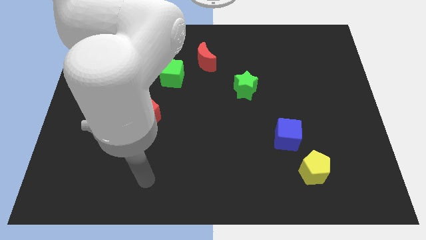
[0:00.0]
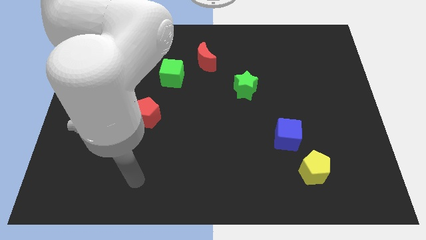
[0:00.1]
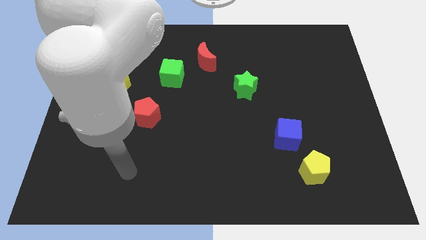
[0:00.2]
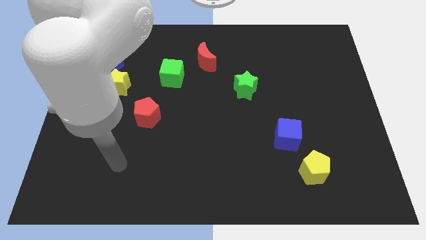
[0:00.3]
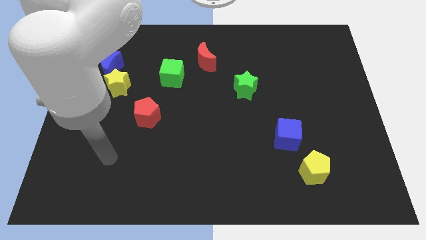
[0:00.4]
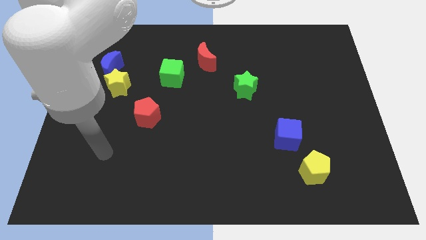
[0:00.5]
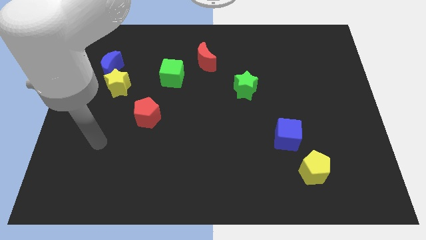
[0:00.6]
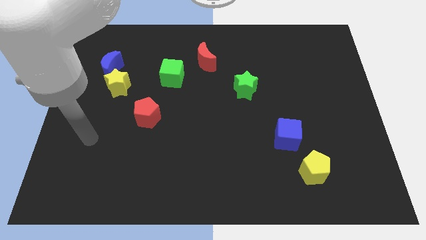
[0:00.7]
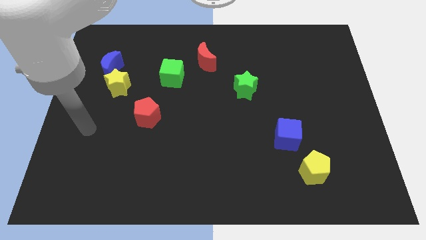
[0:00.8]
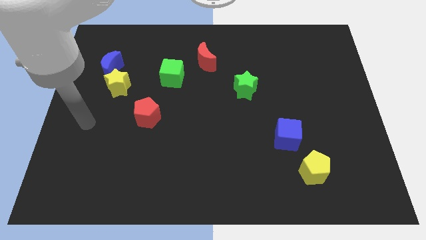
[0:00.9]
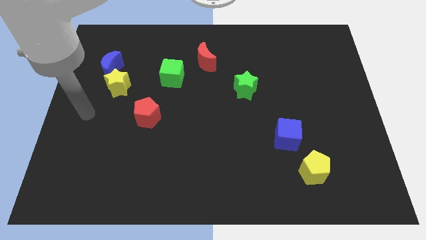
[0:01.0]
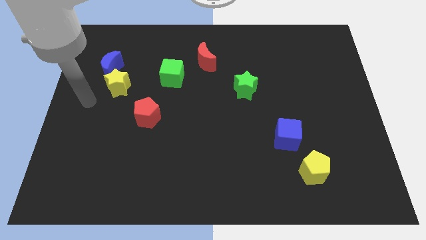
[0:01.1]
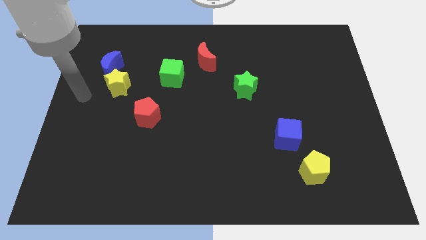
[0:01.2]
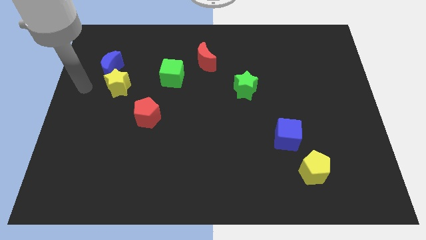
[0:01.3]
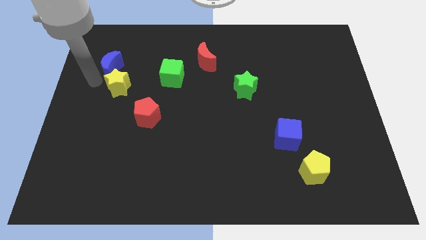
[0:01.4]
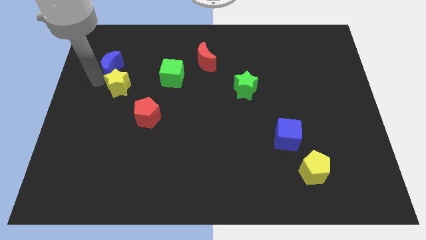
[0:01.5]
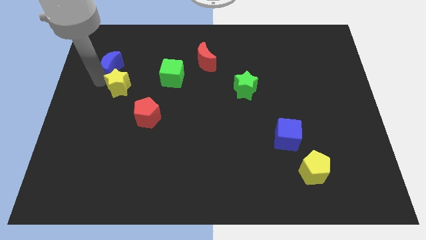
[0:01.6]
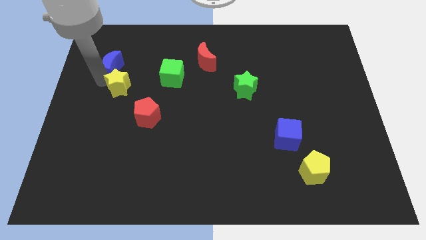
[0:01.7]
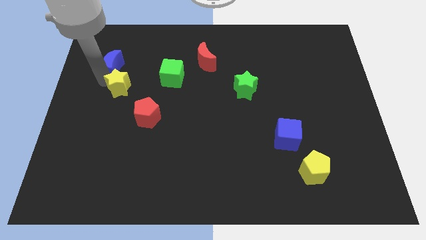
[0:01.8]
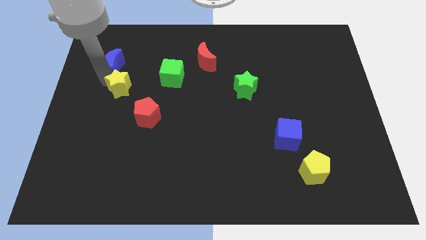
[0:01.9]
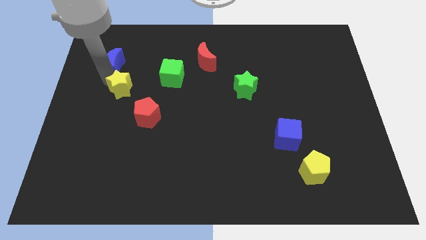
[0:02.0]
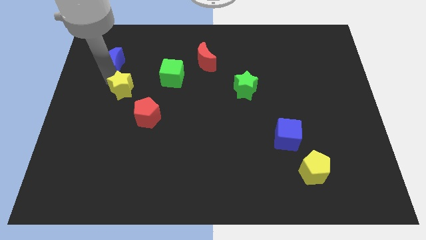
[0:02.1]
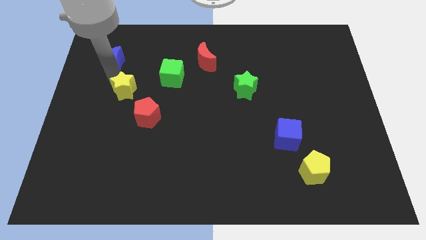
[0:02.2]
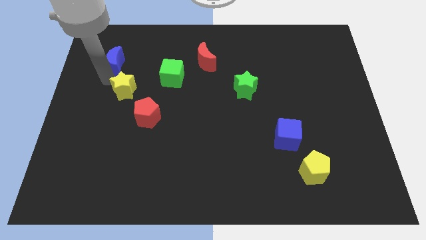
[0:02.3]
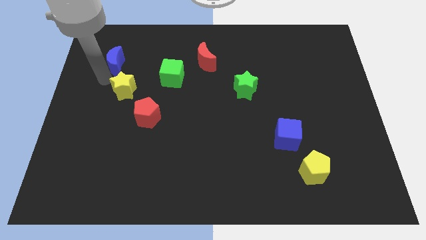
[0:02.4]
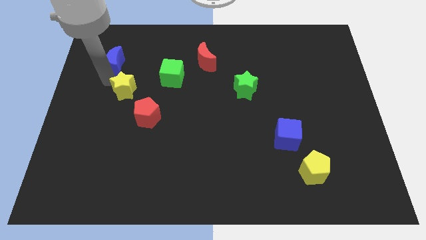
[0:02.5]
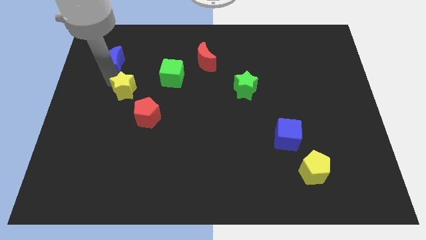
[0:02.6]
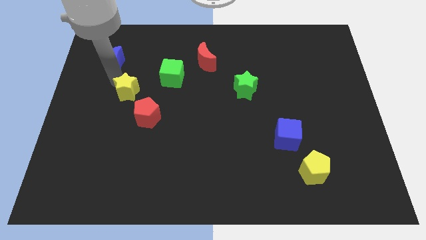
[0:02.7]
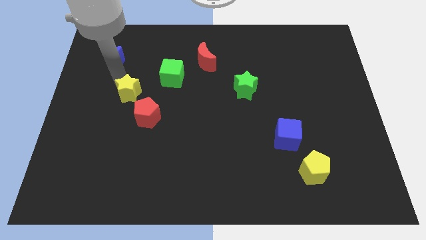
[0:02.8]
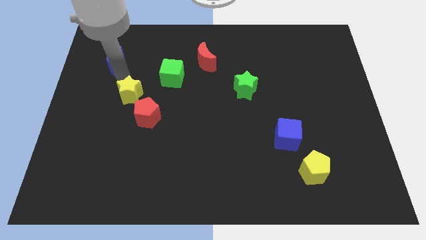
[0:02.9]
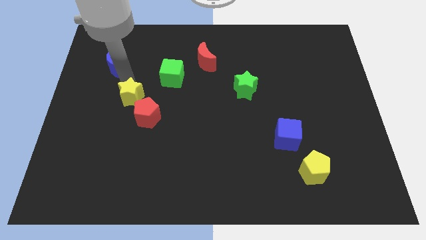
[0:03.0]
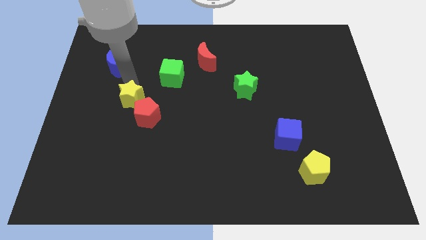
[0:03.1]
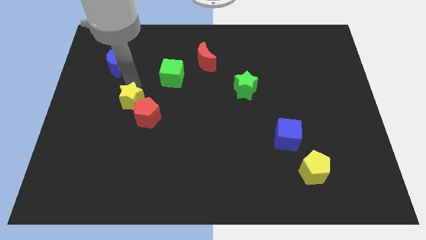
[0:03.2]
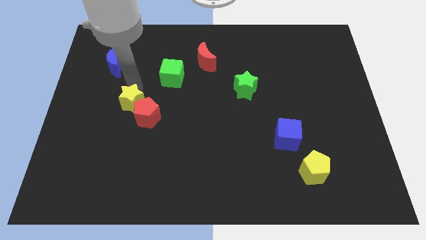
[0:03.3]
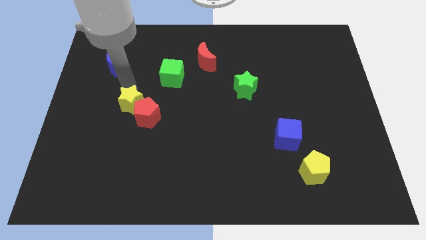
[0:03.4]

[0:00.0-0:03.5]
slide the yellow star a bit downwards and to the right diagonally

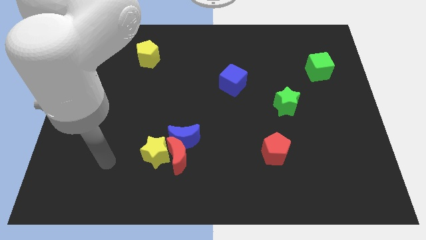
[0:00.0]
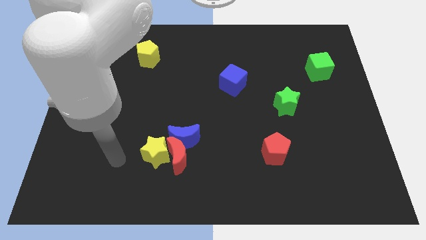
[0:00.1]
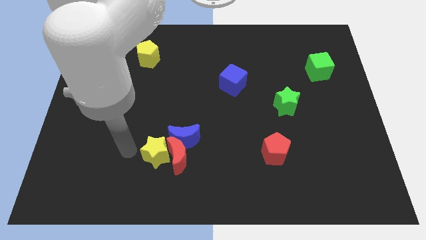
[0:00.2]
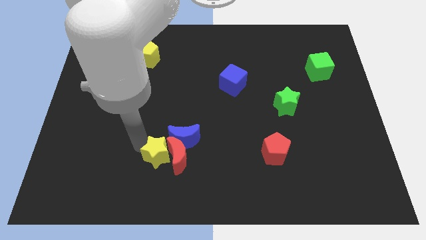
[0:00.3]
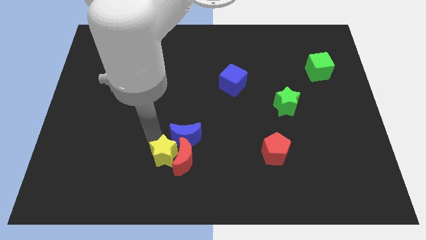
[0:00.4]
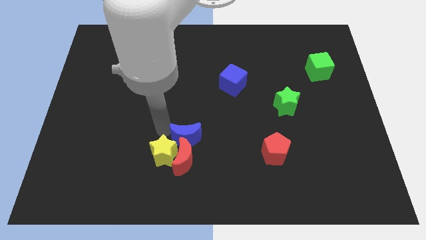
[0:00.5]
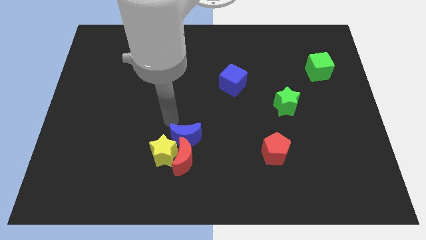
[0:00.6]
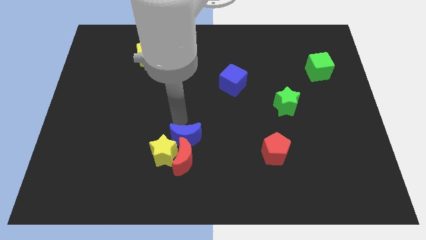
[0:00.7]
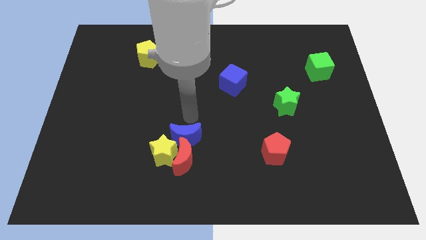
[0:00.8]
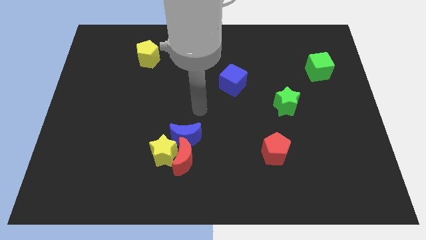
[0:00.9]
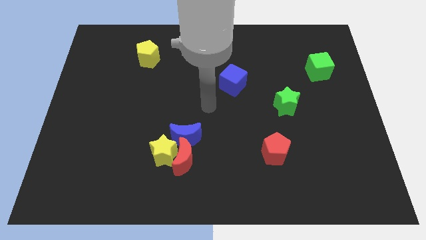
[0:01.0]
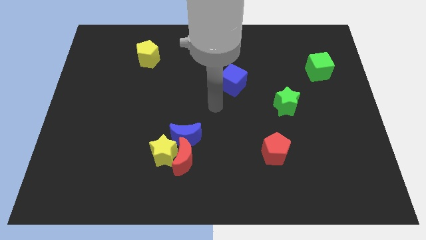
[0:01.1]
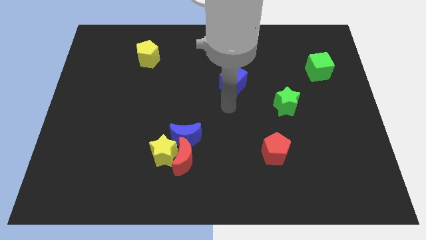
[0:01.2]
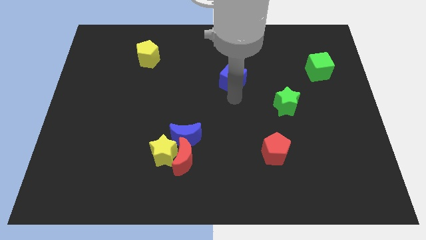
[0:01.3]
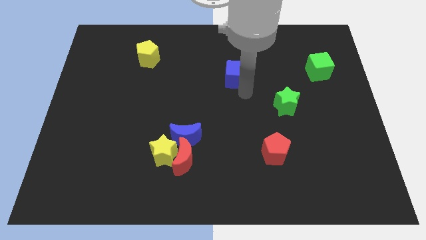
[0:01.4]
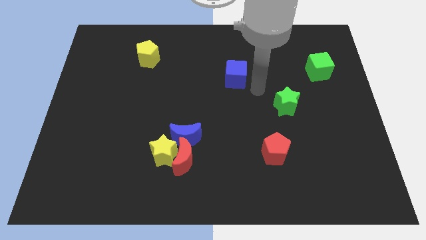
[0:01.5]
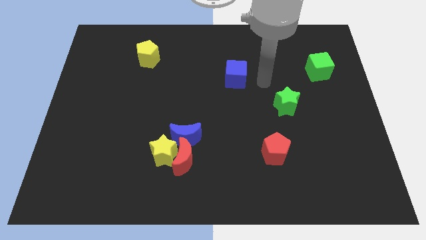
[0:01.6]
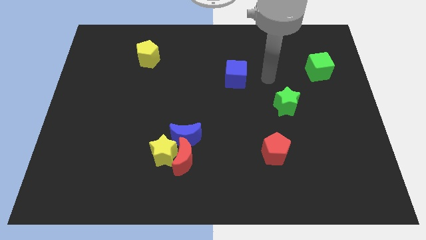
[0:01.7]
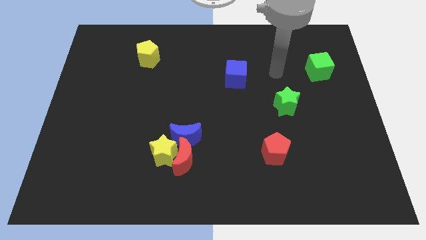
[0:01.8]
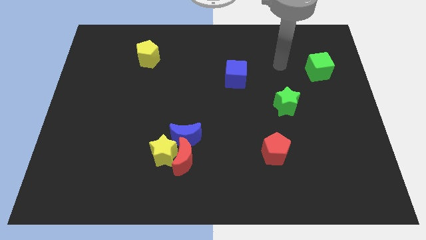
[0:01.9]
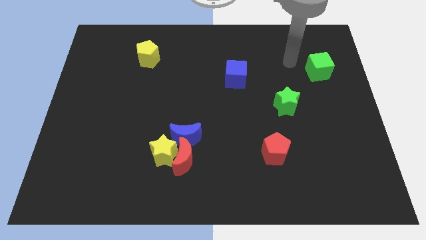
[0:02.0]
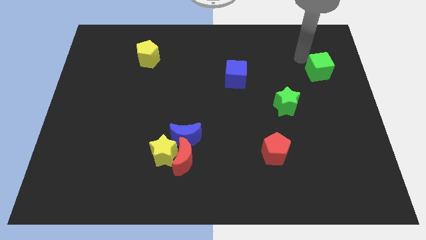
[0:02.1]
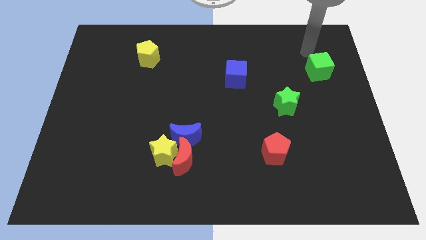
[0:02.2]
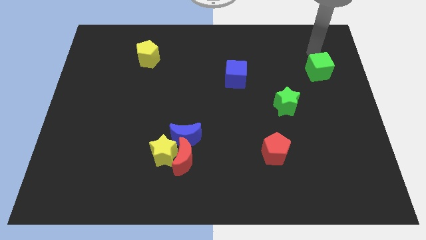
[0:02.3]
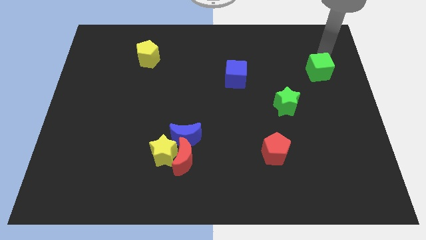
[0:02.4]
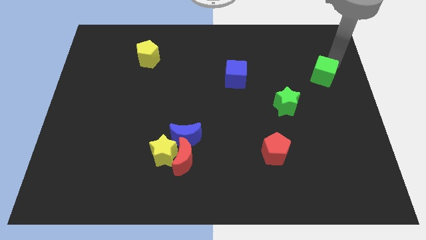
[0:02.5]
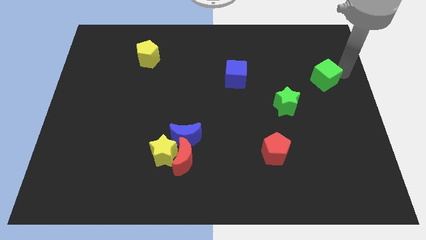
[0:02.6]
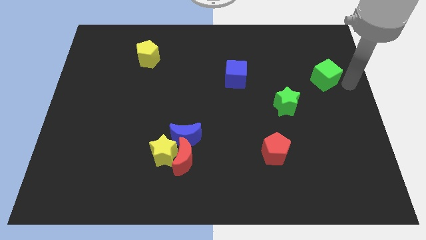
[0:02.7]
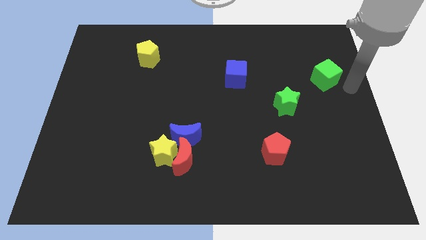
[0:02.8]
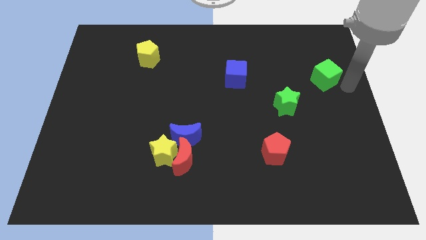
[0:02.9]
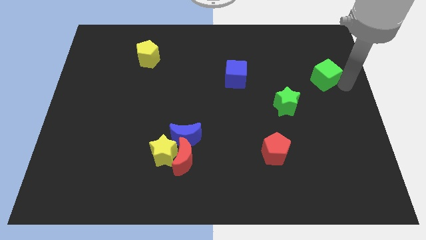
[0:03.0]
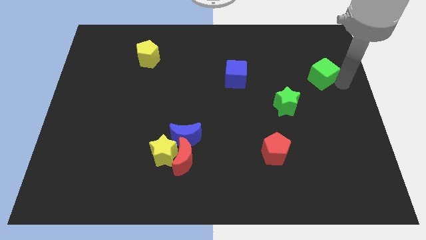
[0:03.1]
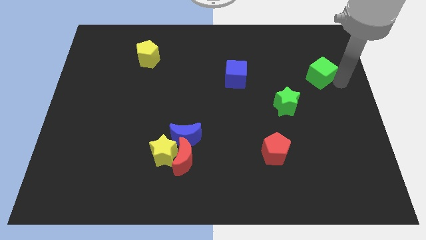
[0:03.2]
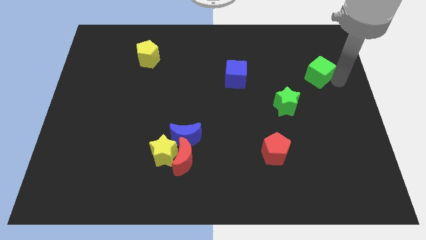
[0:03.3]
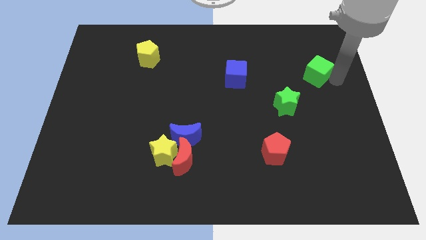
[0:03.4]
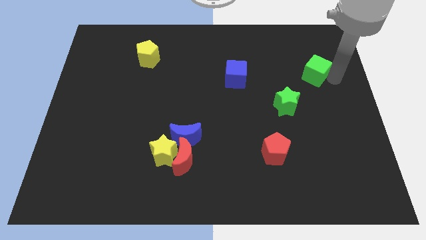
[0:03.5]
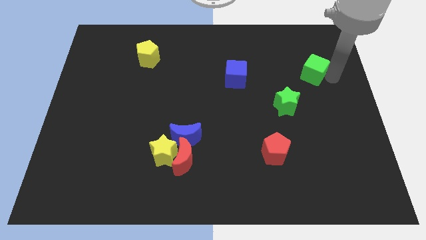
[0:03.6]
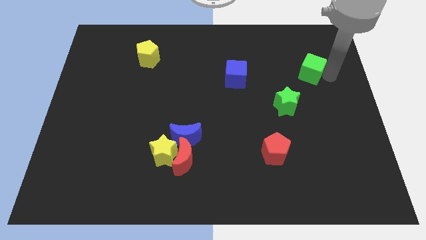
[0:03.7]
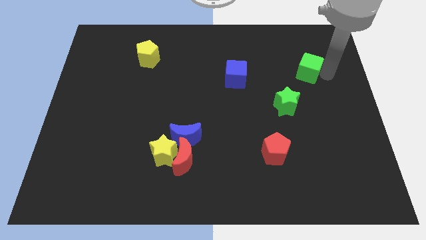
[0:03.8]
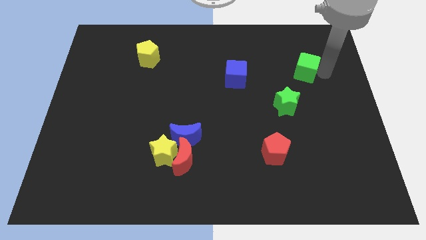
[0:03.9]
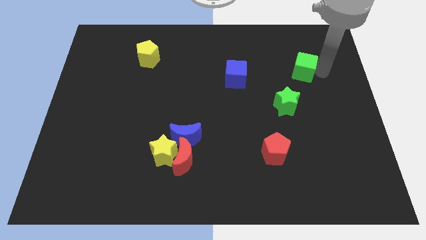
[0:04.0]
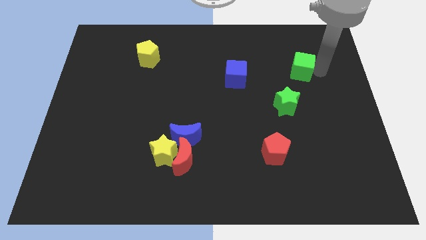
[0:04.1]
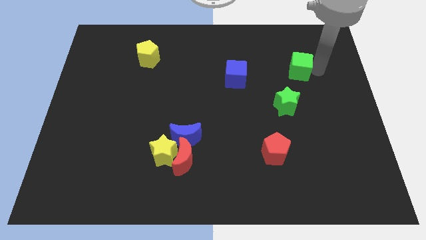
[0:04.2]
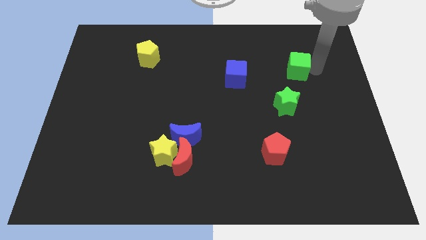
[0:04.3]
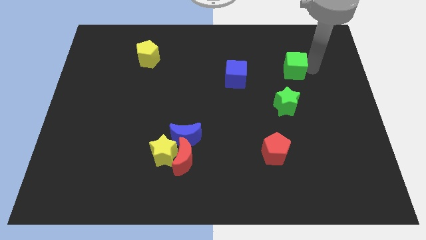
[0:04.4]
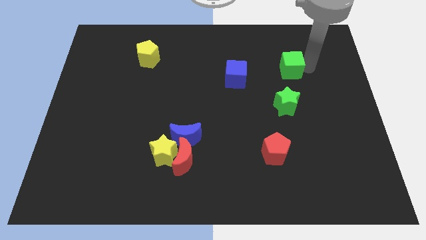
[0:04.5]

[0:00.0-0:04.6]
slightly slide the green cube to the left

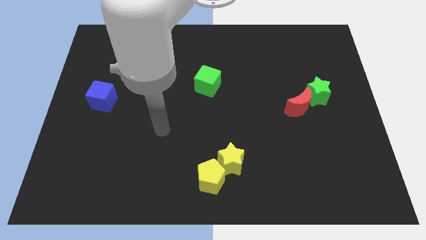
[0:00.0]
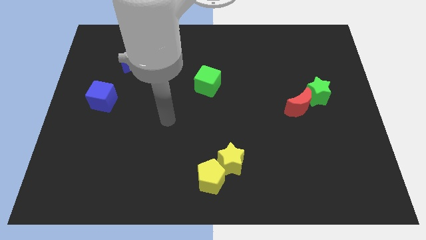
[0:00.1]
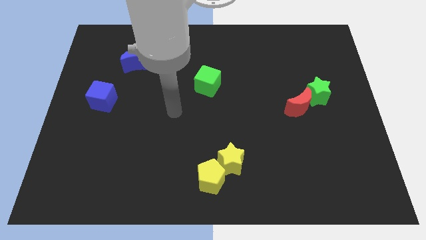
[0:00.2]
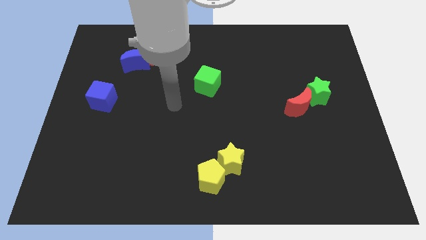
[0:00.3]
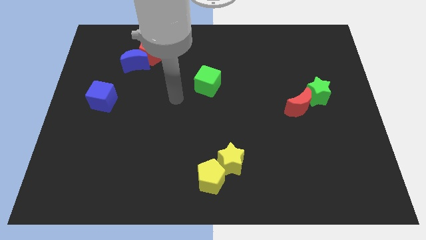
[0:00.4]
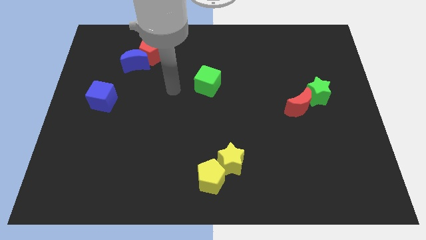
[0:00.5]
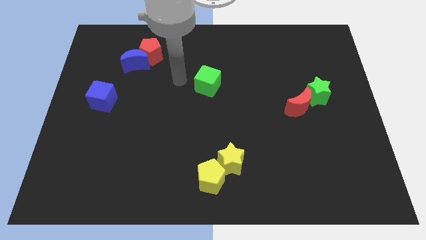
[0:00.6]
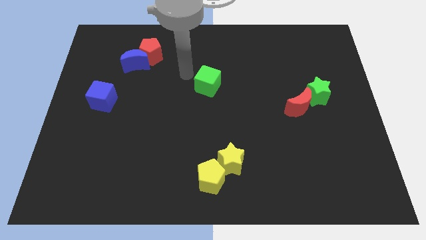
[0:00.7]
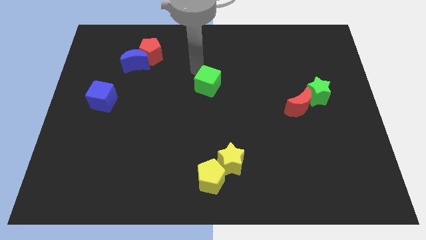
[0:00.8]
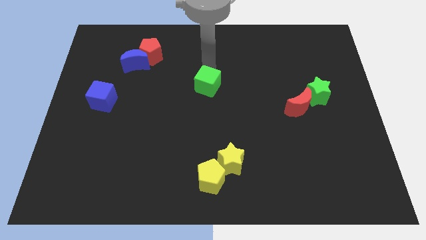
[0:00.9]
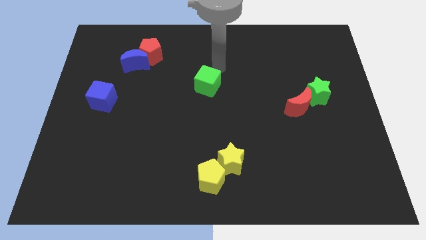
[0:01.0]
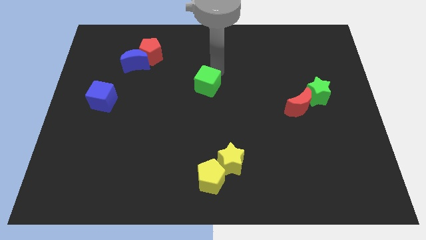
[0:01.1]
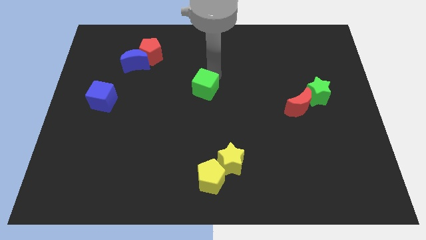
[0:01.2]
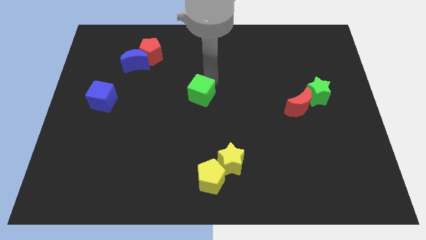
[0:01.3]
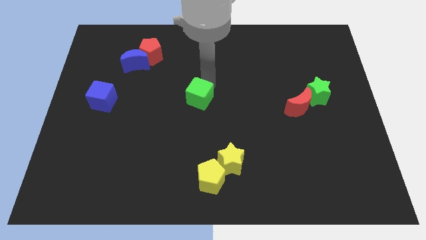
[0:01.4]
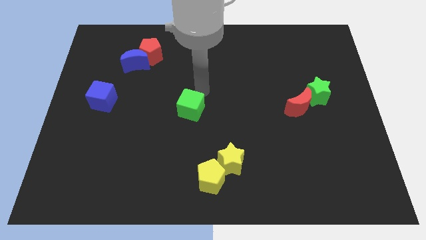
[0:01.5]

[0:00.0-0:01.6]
slightly move the green cube down
